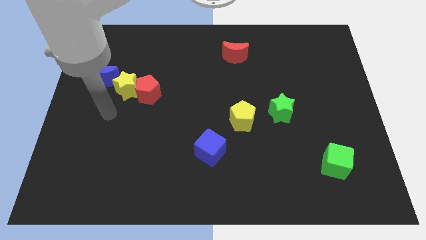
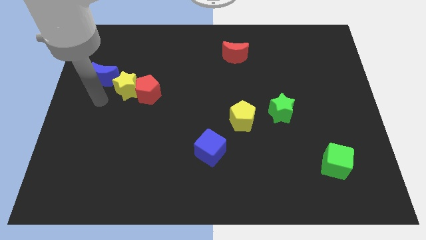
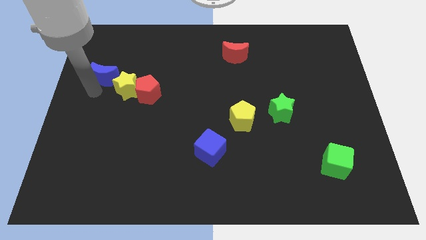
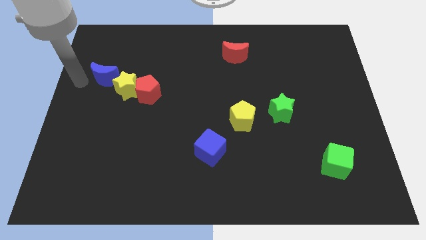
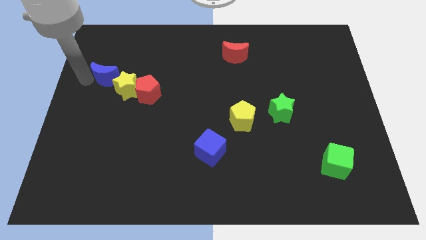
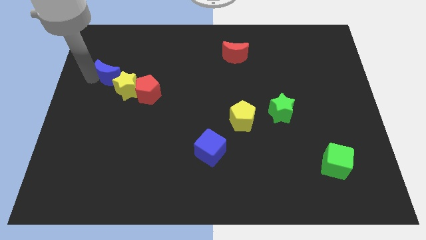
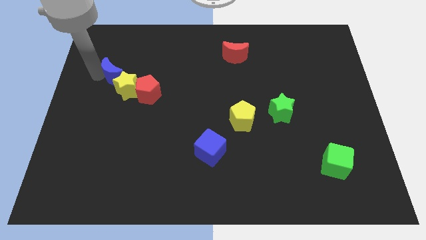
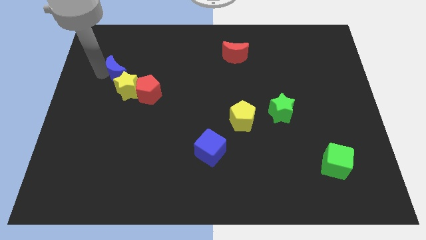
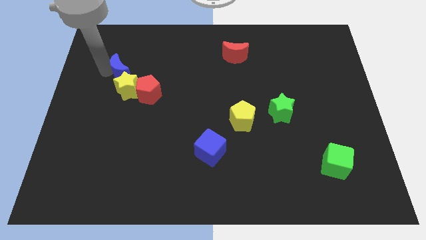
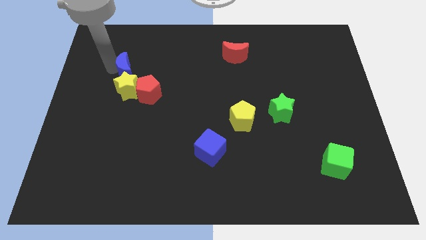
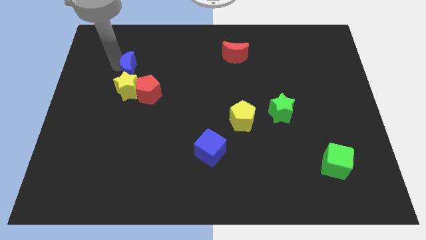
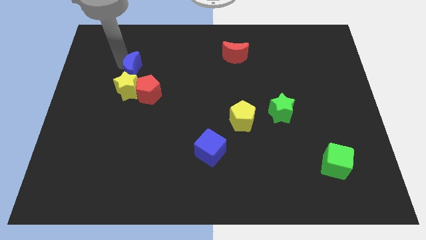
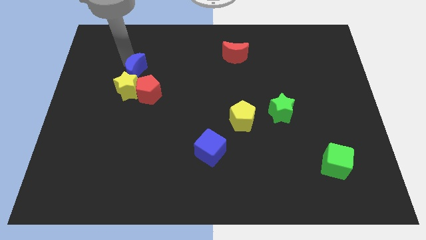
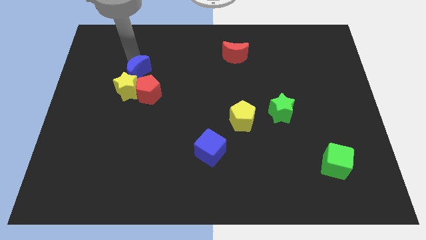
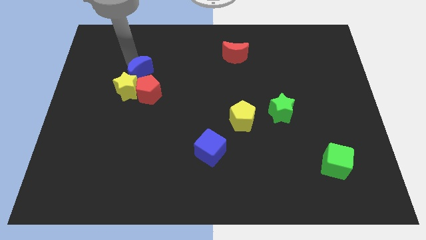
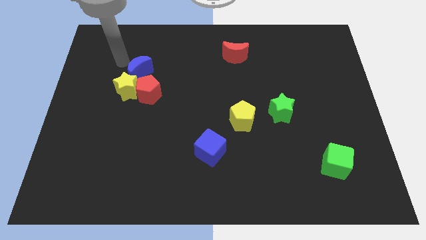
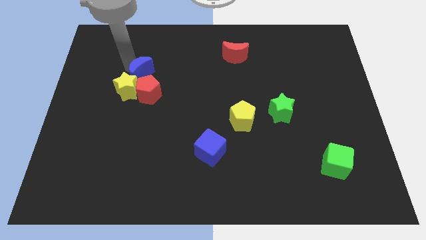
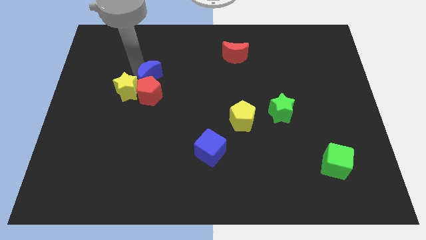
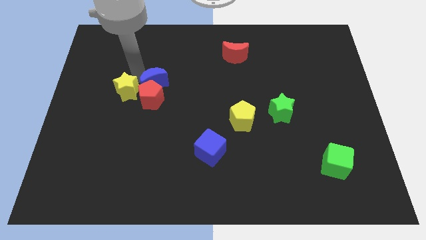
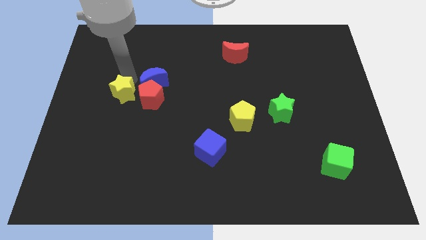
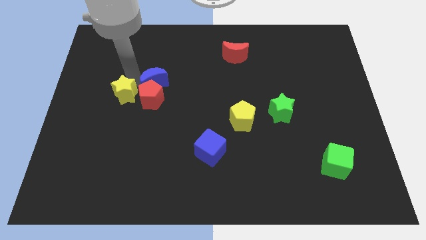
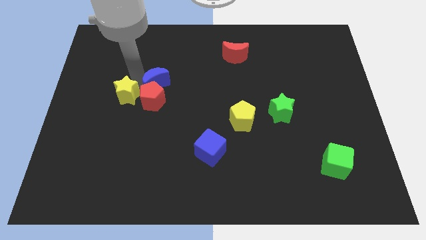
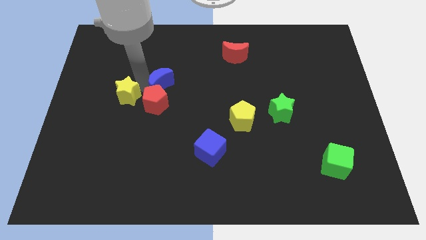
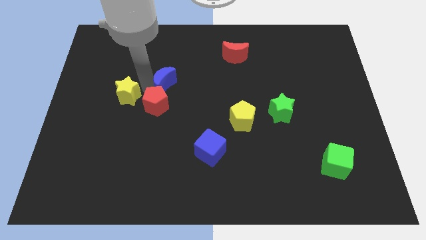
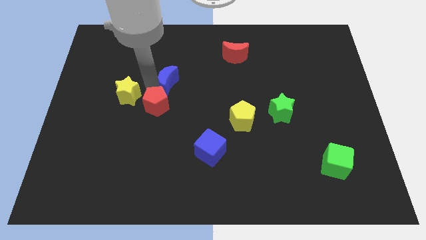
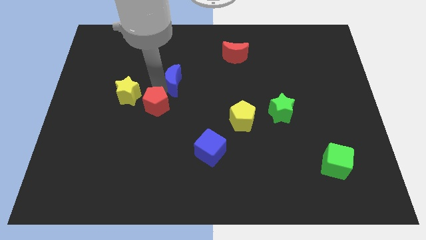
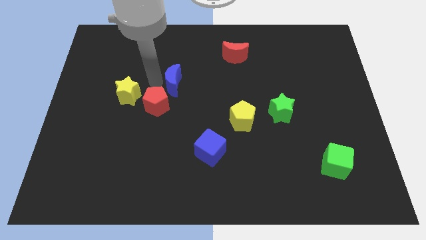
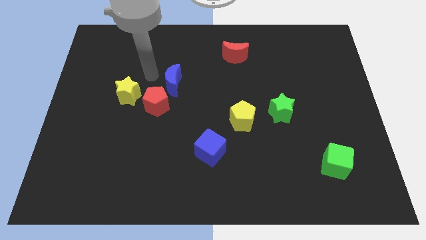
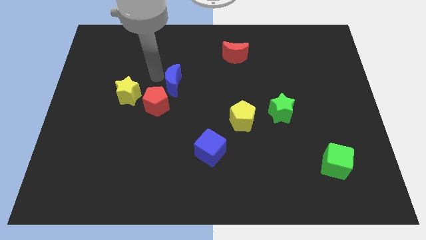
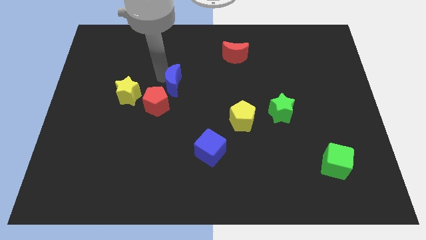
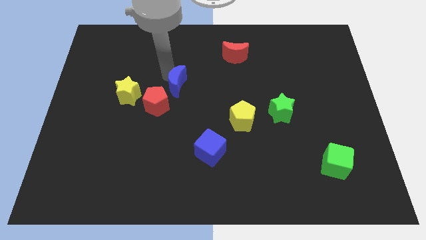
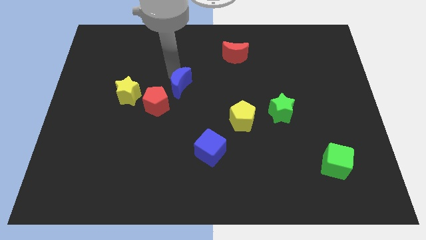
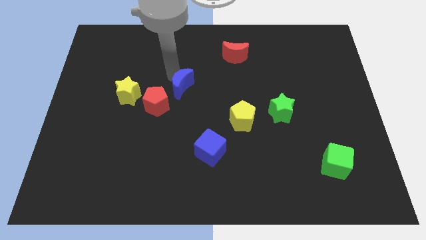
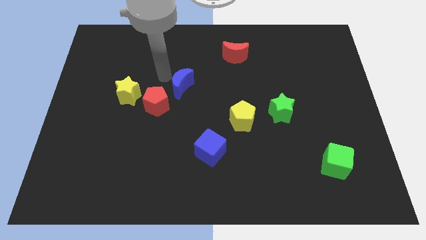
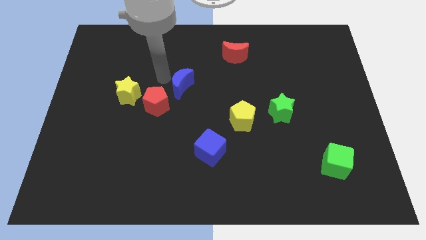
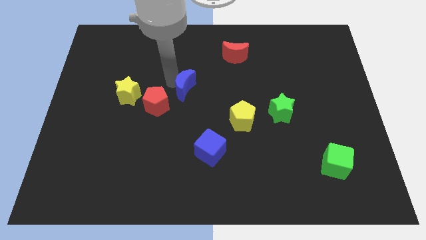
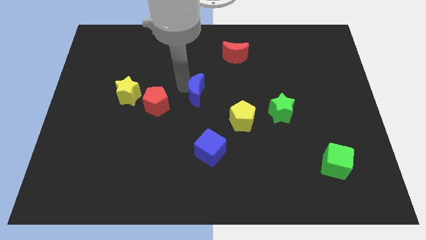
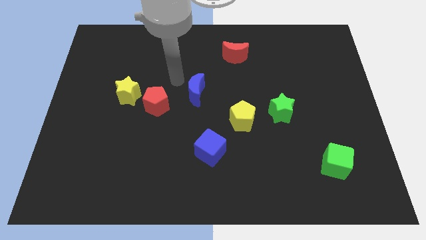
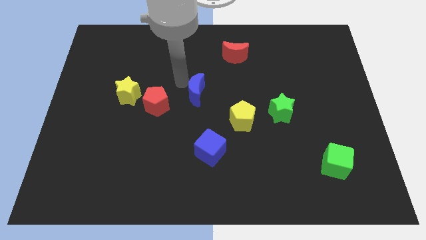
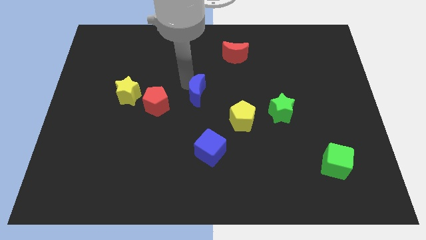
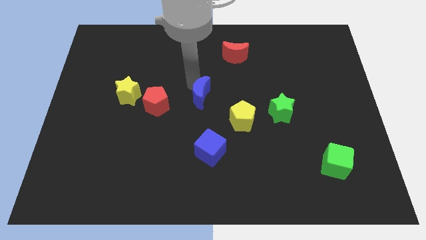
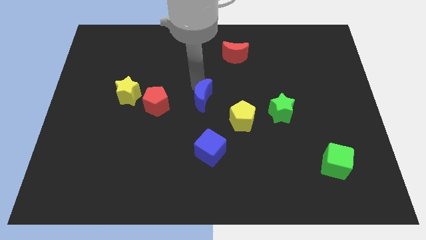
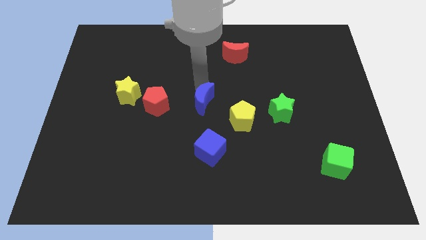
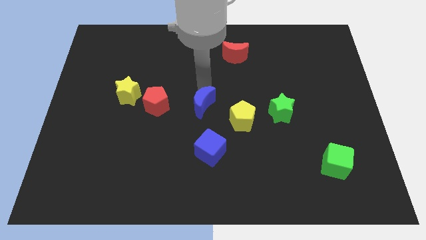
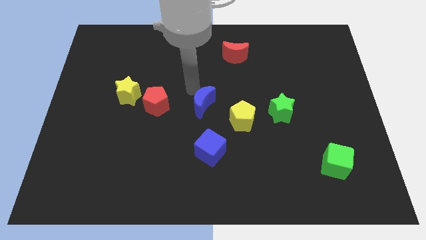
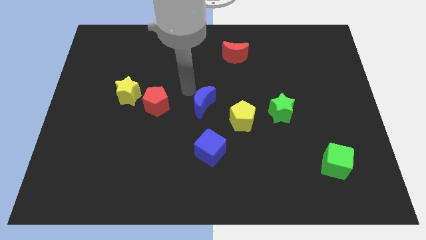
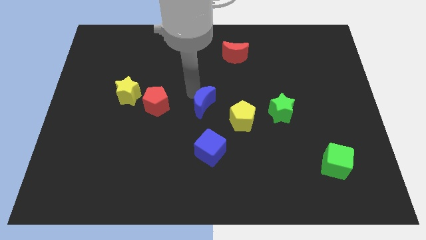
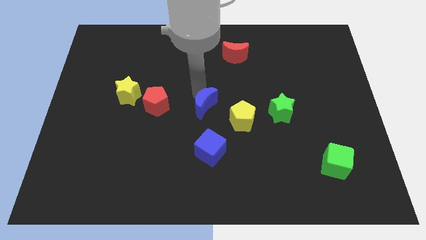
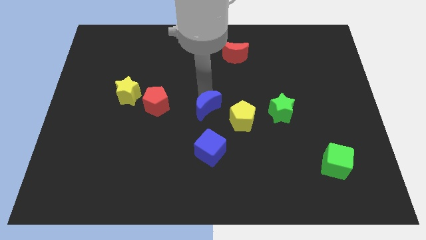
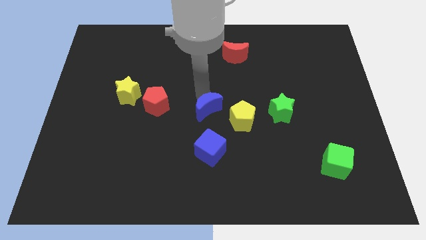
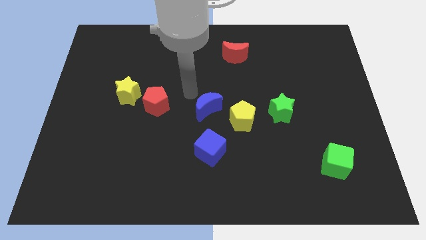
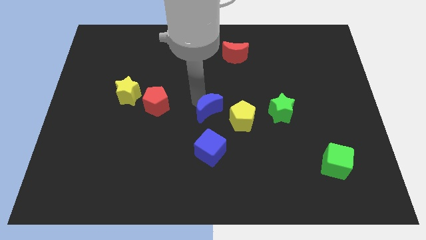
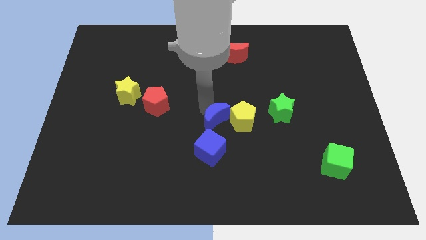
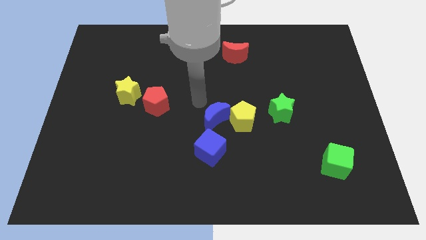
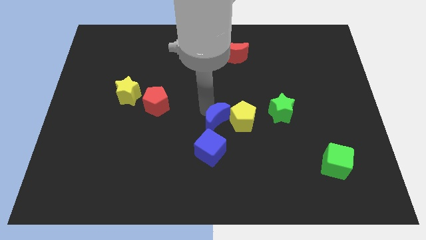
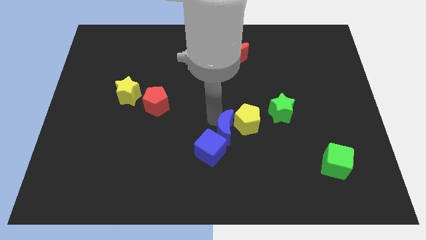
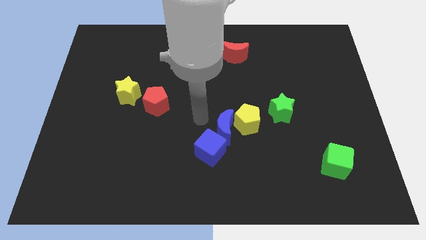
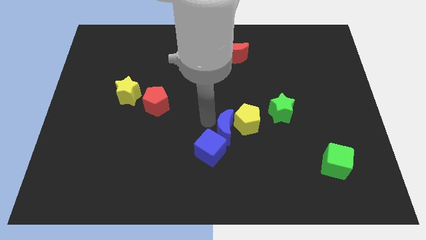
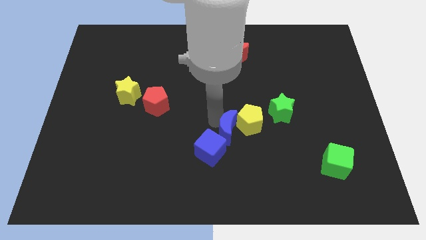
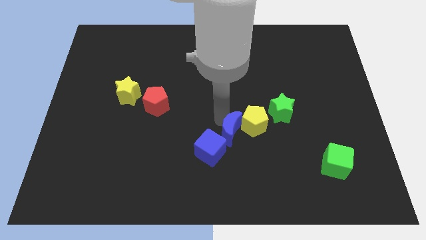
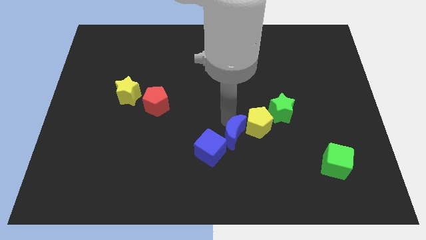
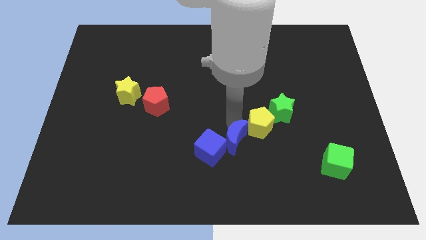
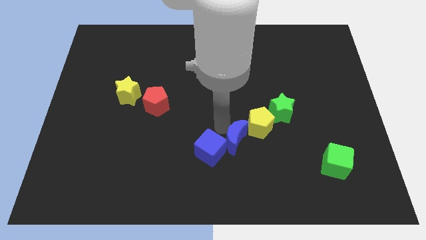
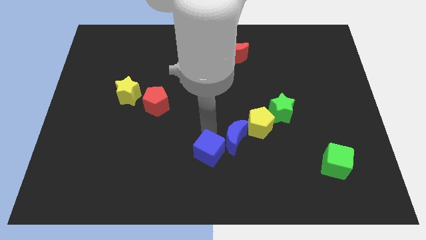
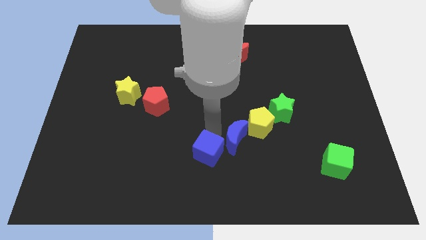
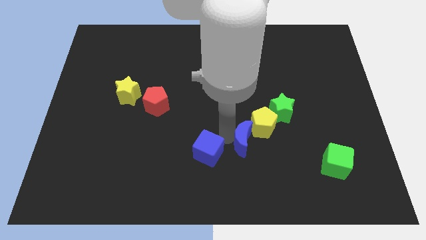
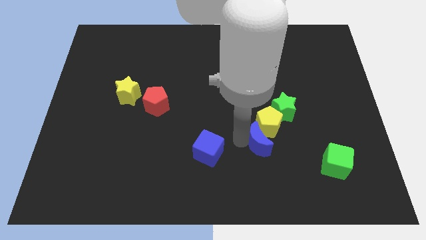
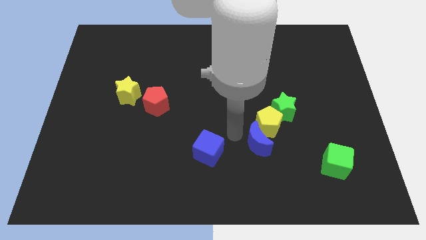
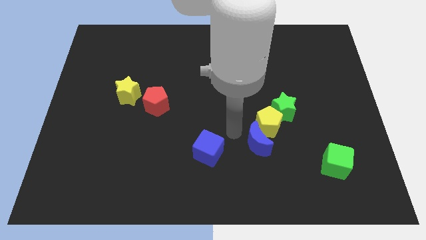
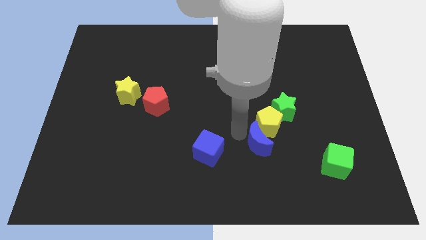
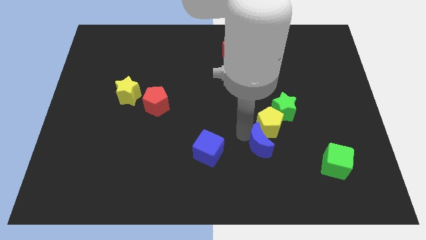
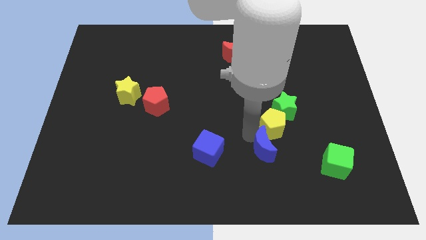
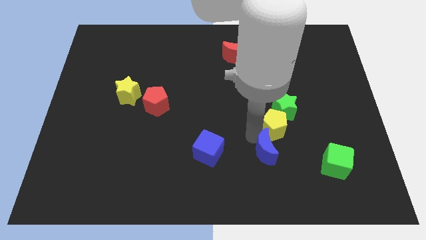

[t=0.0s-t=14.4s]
move the blue moon left of the green cube
